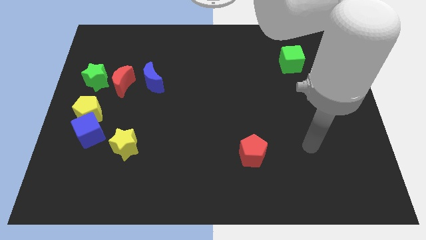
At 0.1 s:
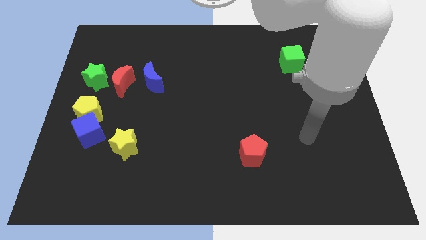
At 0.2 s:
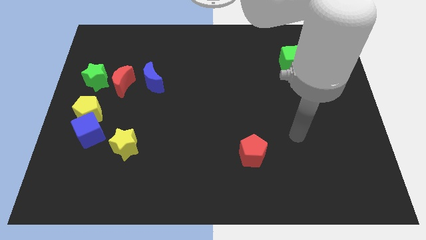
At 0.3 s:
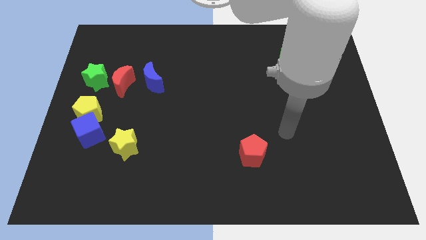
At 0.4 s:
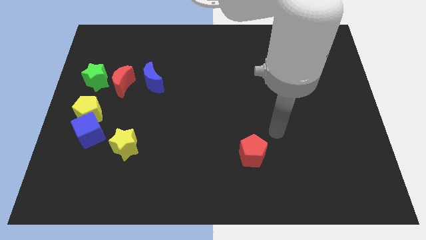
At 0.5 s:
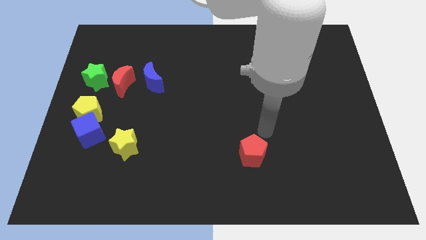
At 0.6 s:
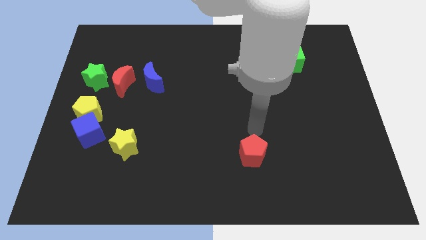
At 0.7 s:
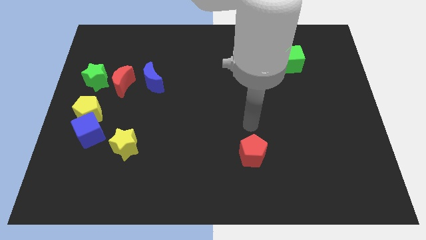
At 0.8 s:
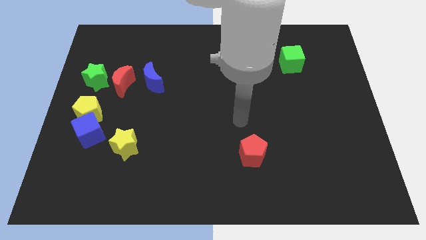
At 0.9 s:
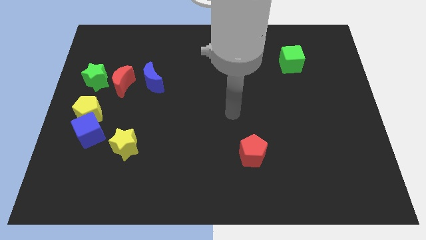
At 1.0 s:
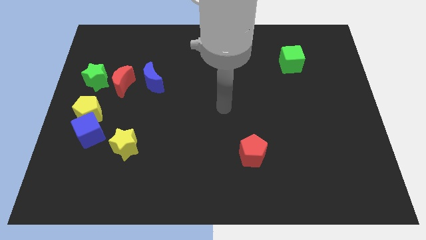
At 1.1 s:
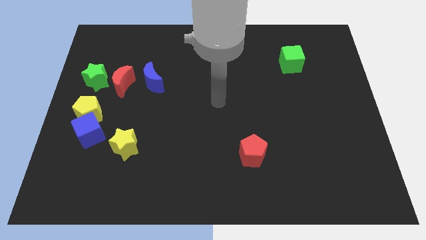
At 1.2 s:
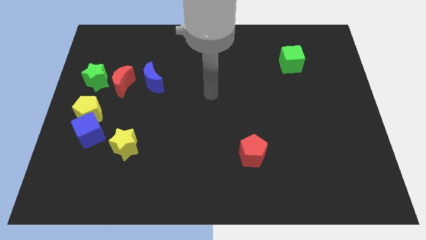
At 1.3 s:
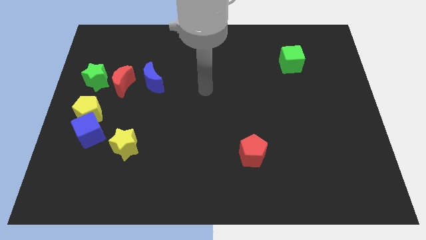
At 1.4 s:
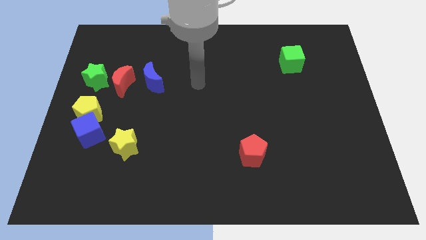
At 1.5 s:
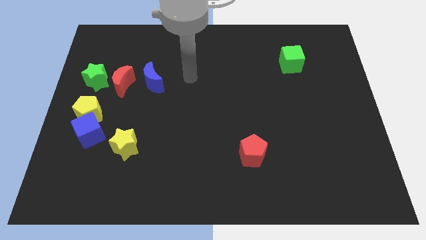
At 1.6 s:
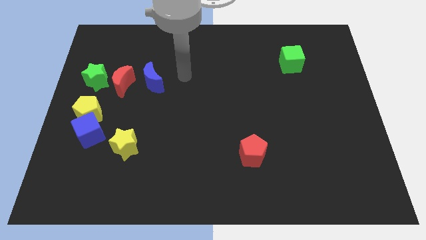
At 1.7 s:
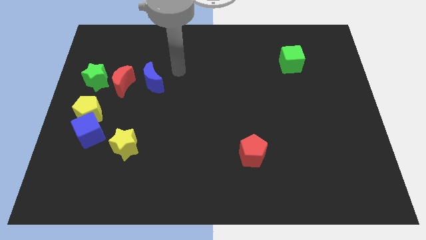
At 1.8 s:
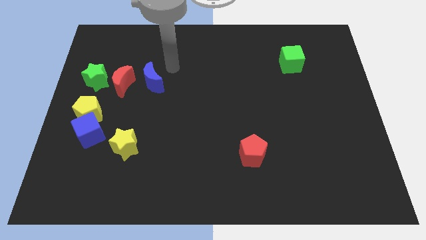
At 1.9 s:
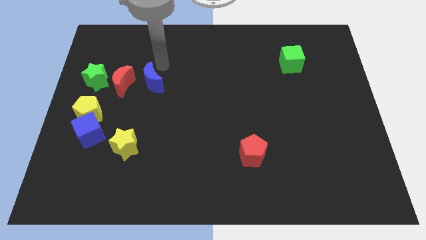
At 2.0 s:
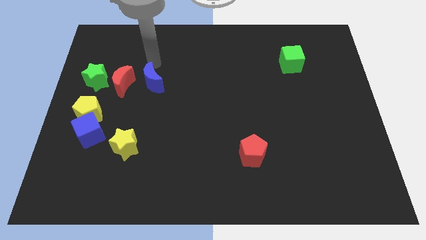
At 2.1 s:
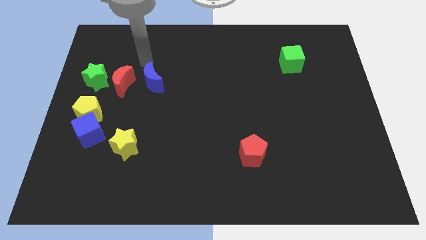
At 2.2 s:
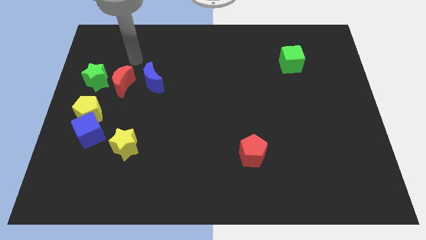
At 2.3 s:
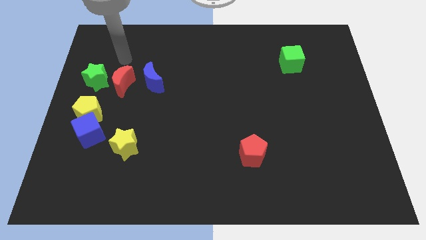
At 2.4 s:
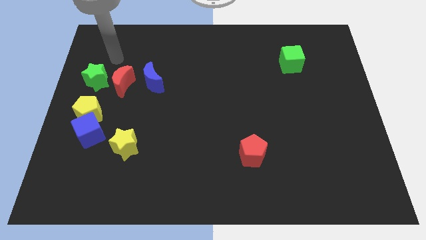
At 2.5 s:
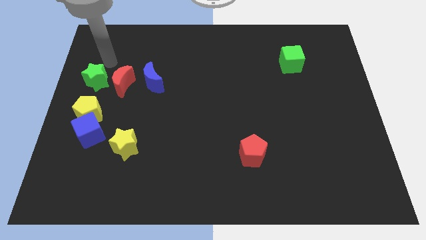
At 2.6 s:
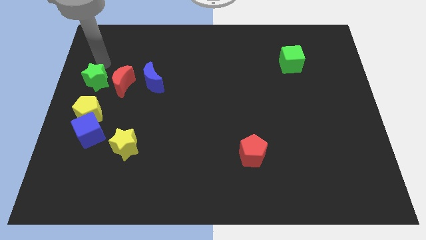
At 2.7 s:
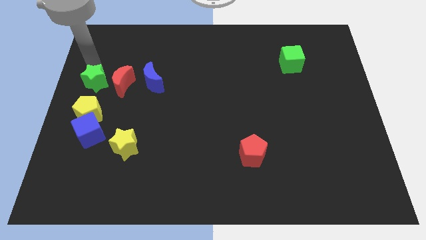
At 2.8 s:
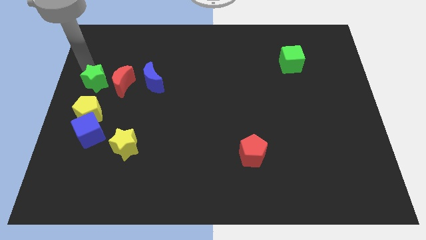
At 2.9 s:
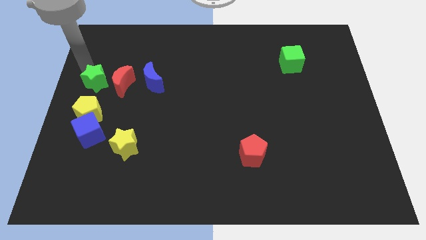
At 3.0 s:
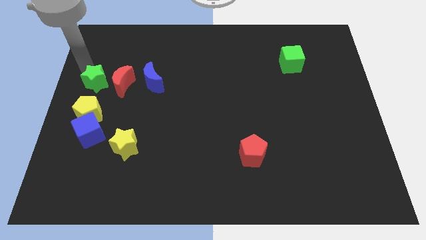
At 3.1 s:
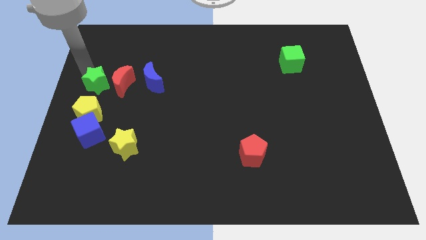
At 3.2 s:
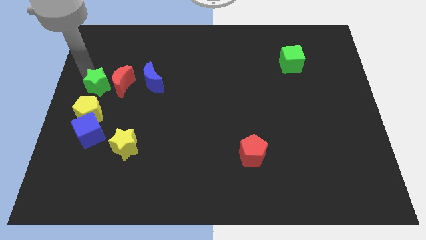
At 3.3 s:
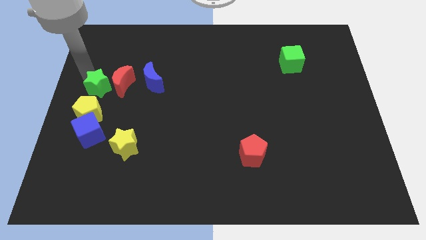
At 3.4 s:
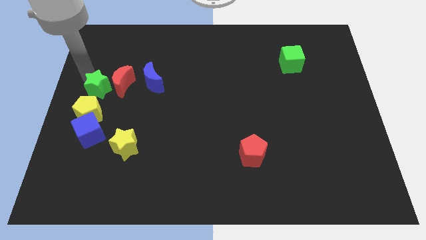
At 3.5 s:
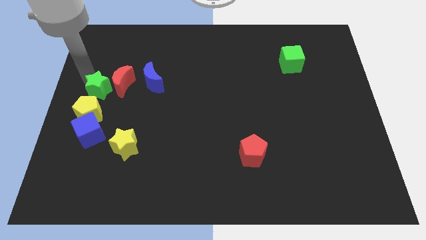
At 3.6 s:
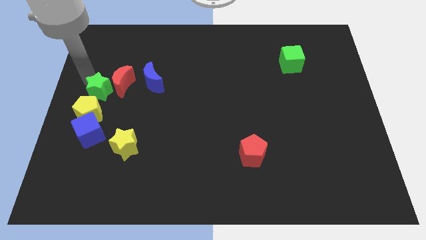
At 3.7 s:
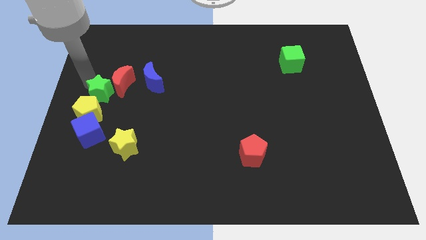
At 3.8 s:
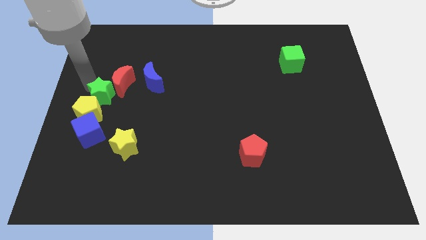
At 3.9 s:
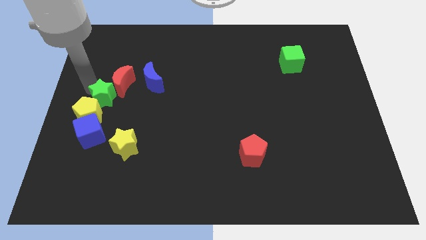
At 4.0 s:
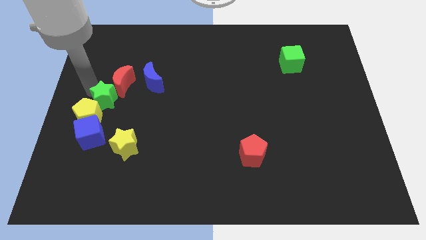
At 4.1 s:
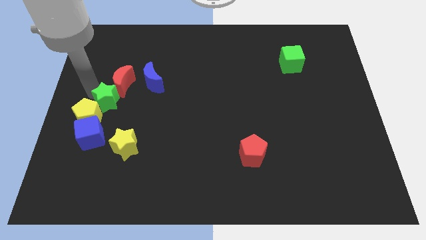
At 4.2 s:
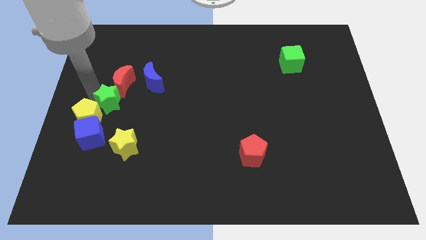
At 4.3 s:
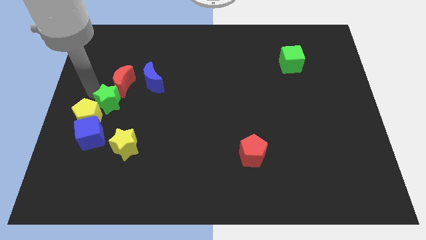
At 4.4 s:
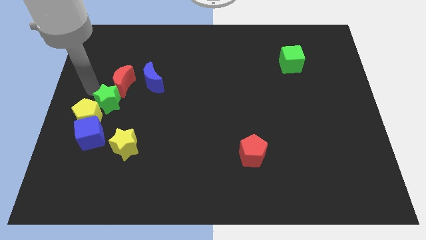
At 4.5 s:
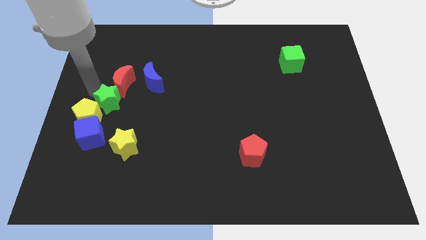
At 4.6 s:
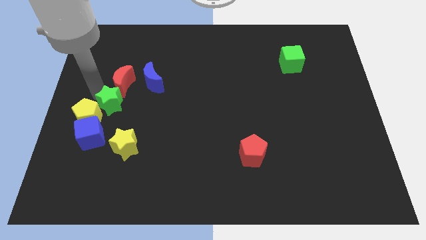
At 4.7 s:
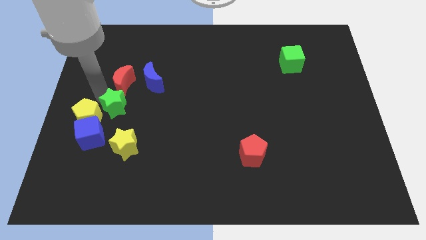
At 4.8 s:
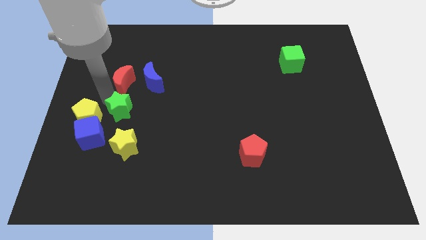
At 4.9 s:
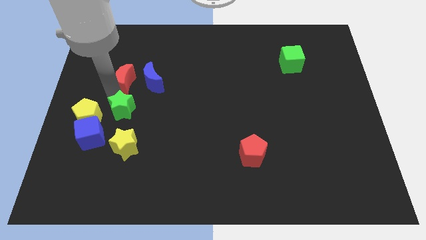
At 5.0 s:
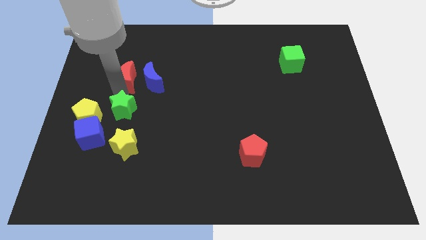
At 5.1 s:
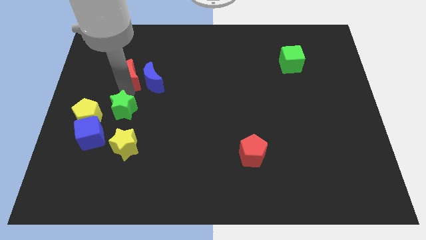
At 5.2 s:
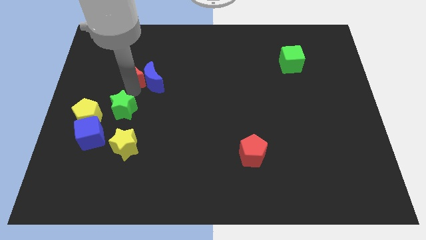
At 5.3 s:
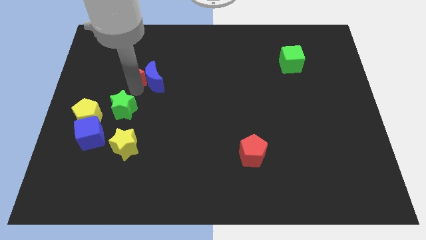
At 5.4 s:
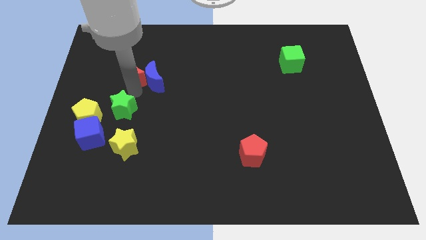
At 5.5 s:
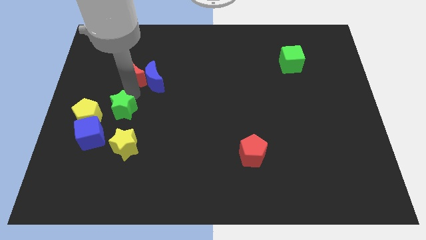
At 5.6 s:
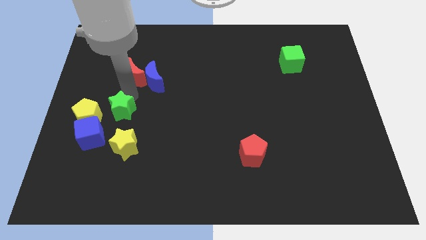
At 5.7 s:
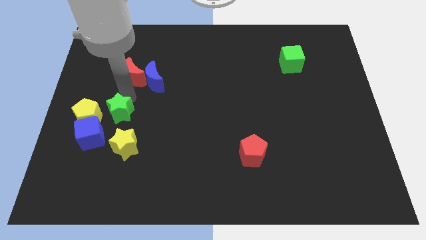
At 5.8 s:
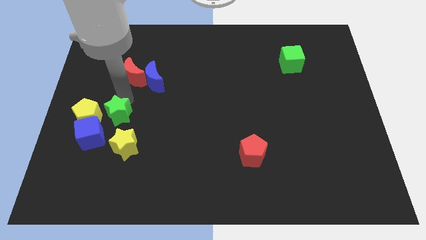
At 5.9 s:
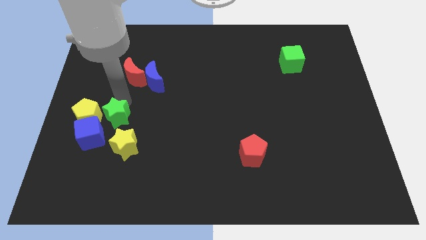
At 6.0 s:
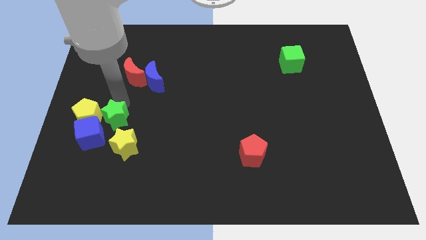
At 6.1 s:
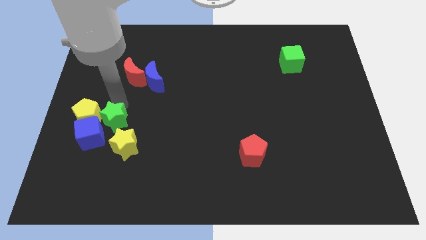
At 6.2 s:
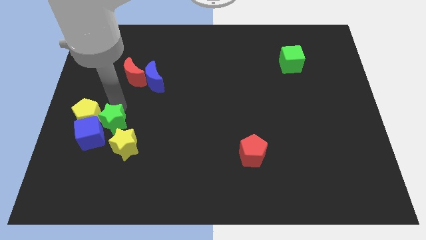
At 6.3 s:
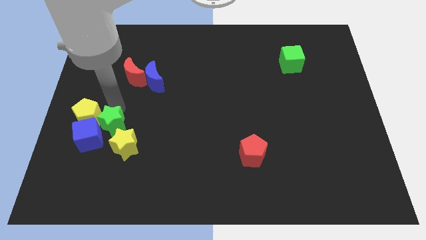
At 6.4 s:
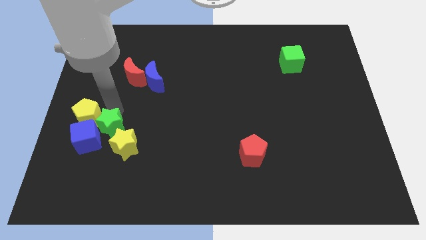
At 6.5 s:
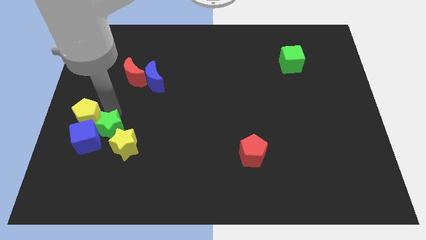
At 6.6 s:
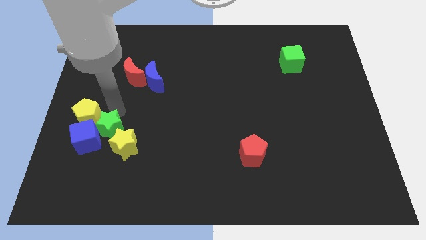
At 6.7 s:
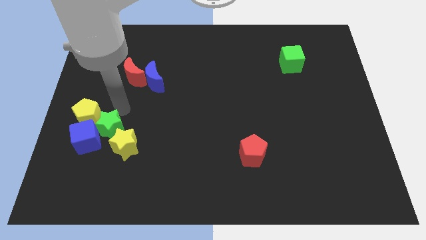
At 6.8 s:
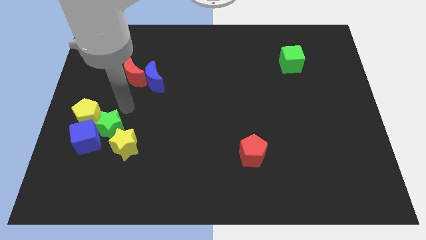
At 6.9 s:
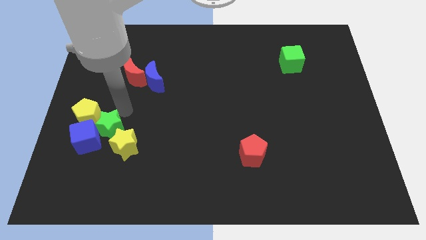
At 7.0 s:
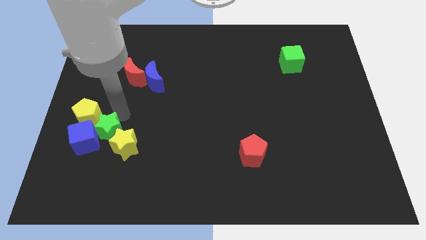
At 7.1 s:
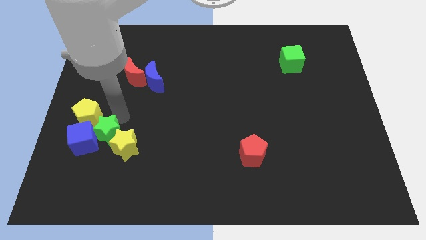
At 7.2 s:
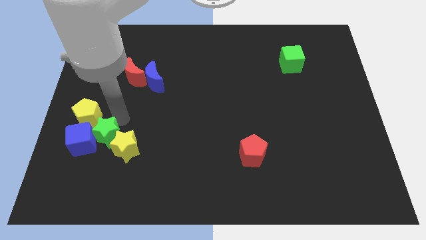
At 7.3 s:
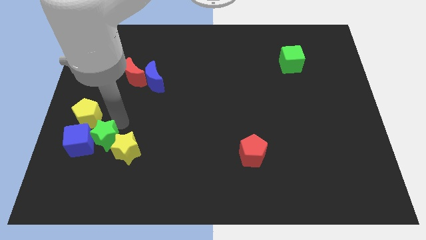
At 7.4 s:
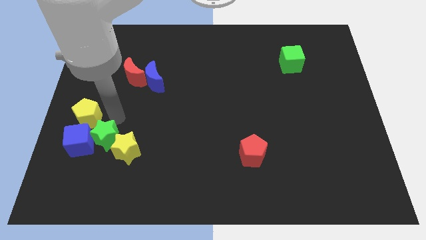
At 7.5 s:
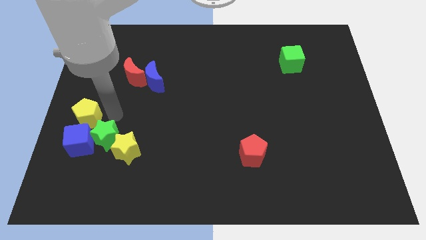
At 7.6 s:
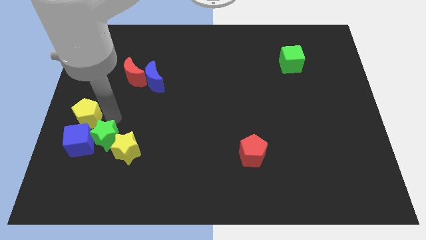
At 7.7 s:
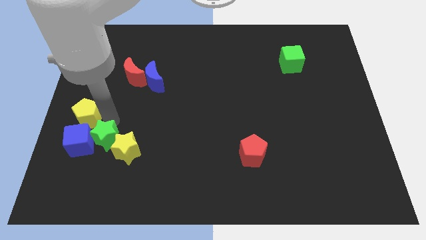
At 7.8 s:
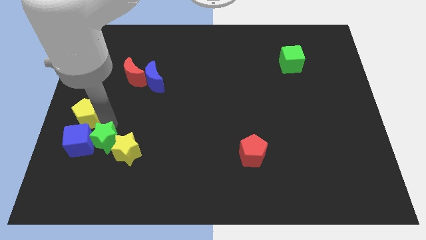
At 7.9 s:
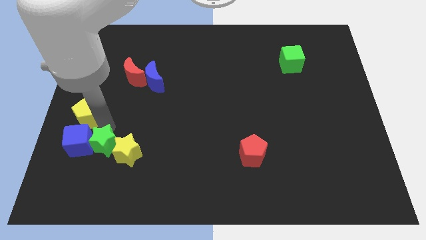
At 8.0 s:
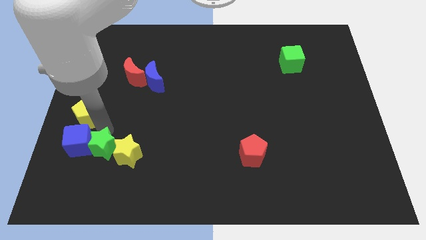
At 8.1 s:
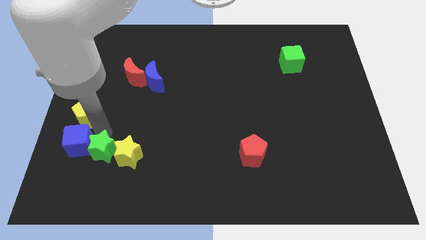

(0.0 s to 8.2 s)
push the green star to the bottom left of the yellow star
